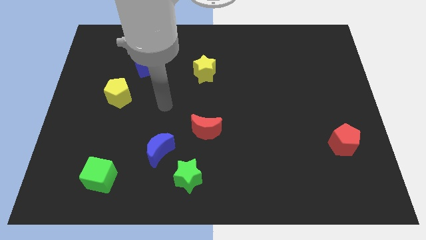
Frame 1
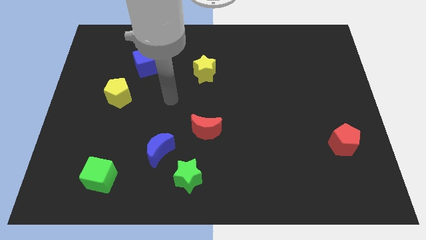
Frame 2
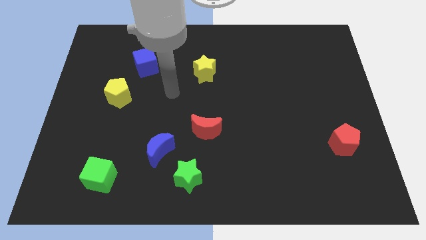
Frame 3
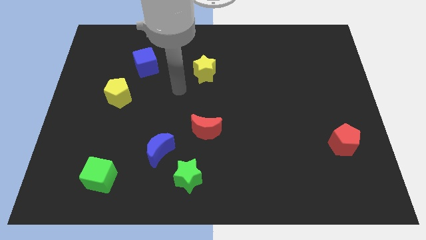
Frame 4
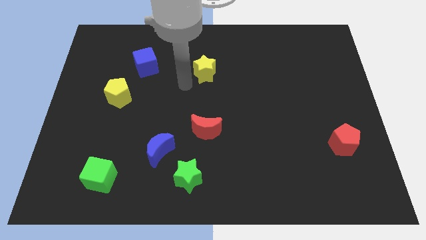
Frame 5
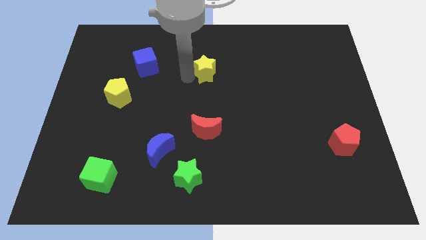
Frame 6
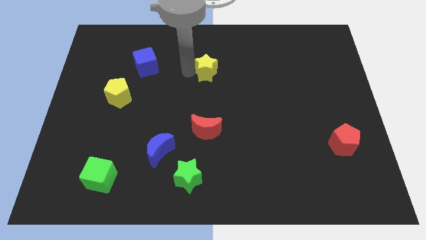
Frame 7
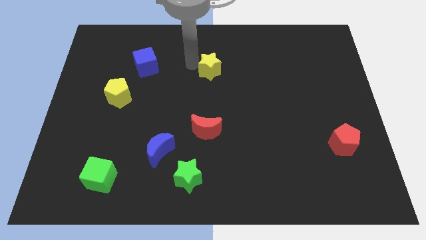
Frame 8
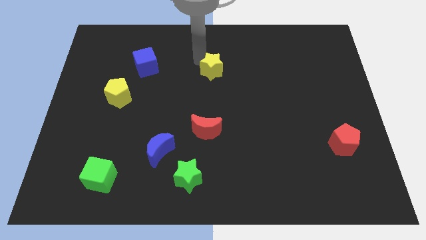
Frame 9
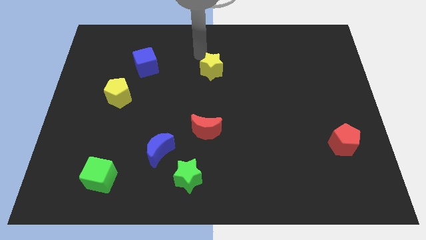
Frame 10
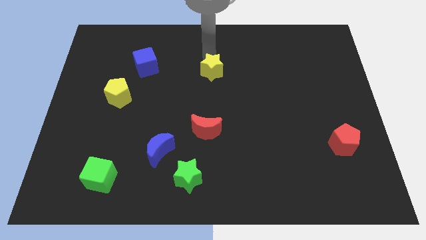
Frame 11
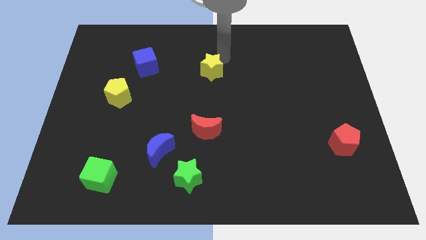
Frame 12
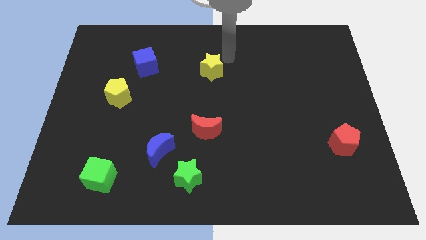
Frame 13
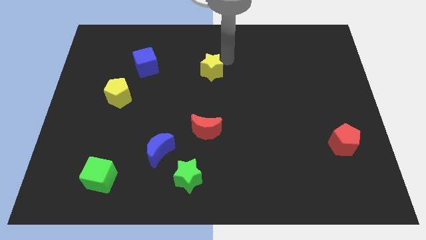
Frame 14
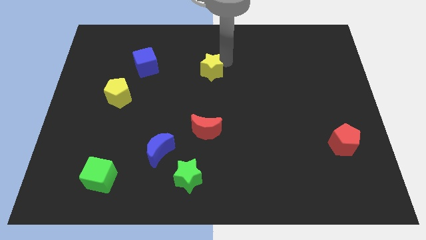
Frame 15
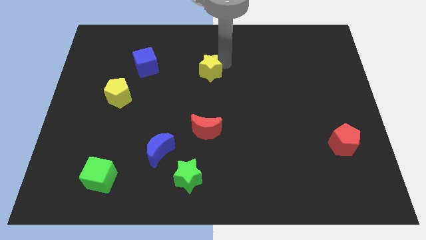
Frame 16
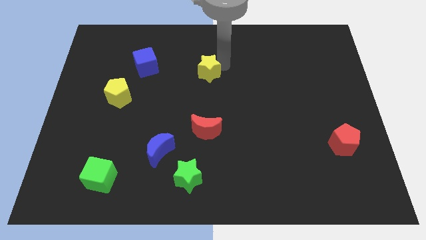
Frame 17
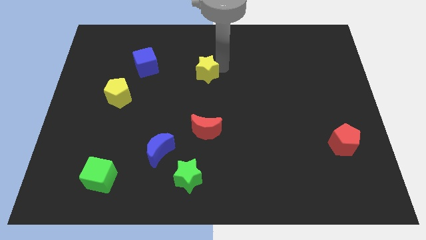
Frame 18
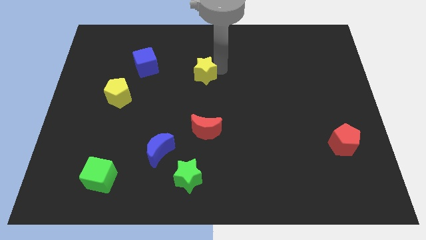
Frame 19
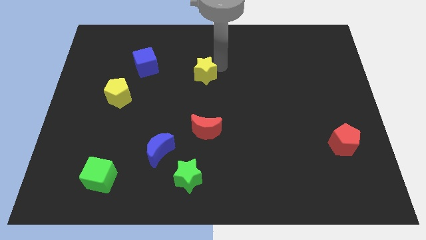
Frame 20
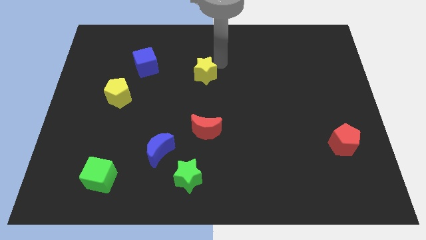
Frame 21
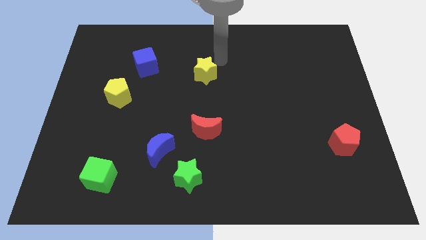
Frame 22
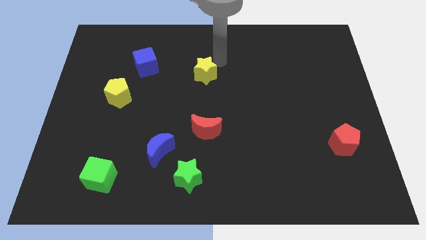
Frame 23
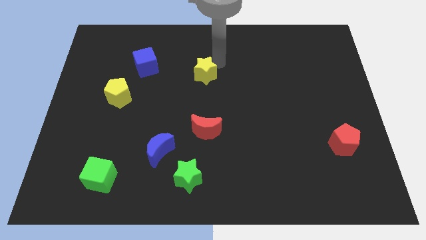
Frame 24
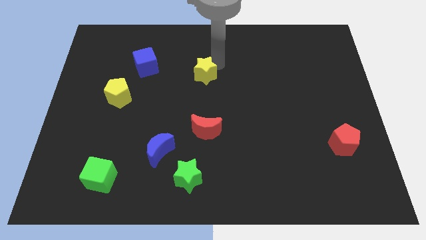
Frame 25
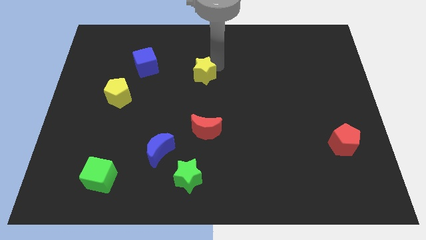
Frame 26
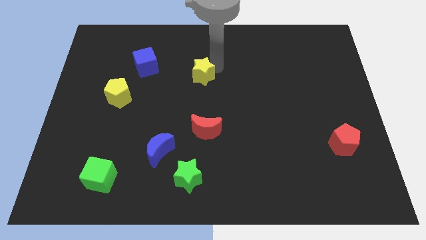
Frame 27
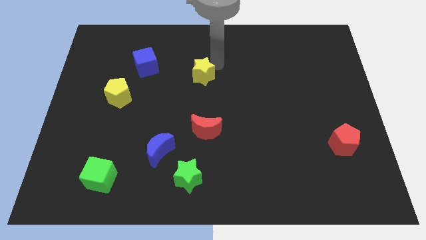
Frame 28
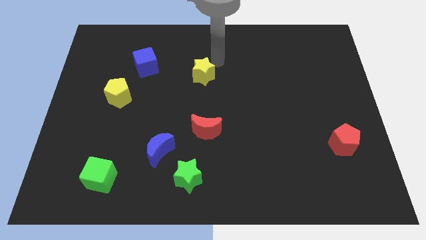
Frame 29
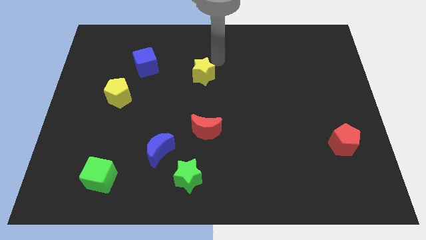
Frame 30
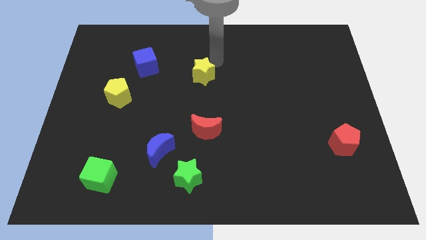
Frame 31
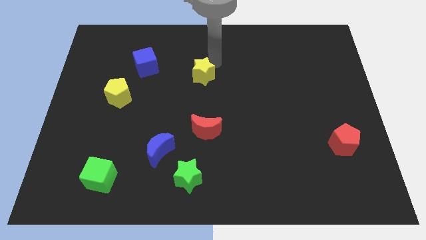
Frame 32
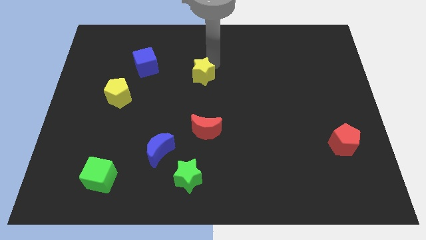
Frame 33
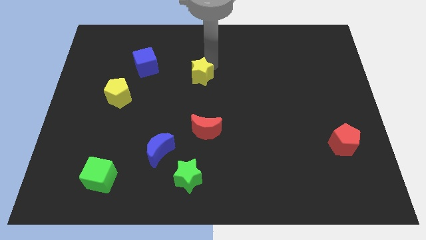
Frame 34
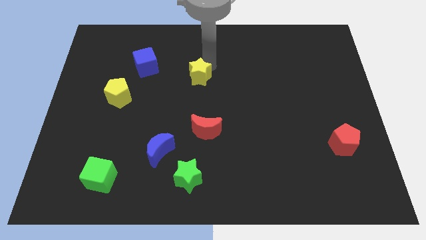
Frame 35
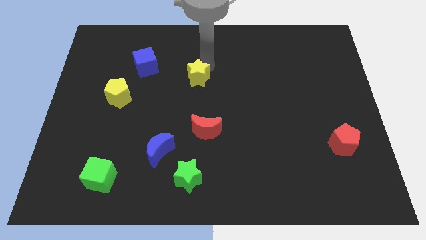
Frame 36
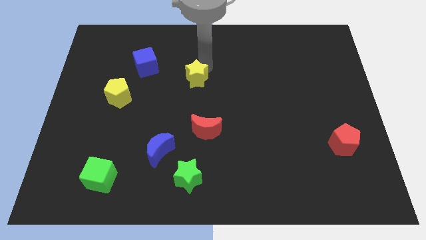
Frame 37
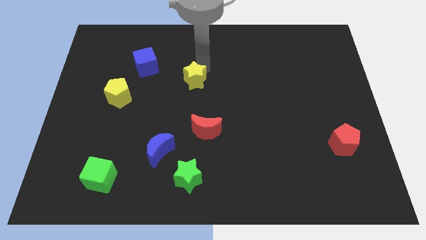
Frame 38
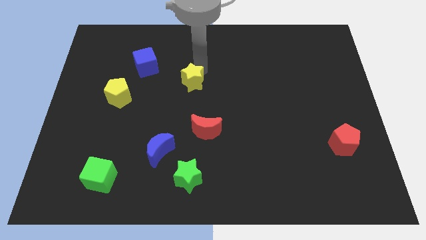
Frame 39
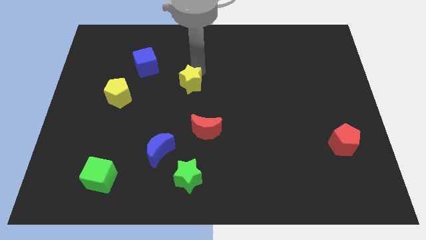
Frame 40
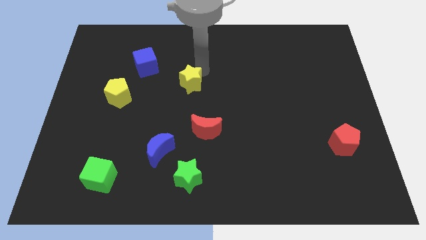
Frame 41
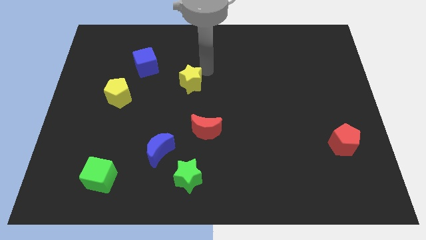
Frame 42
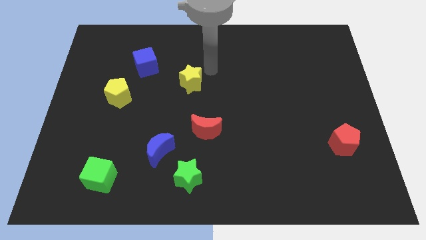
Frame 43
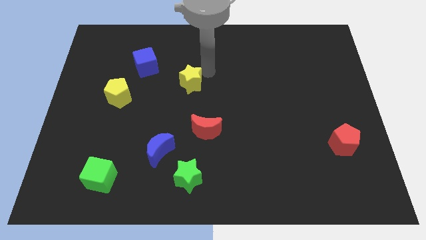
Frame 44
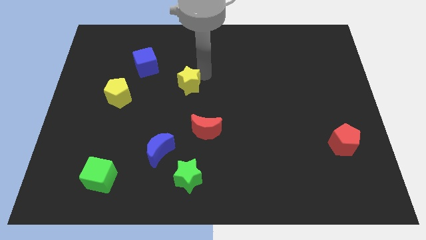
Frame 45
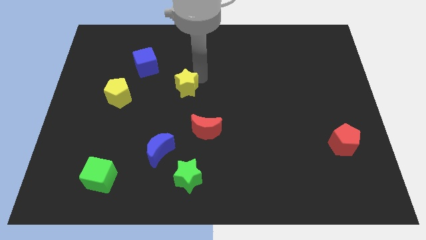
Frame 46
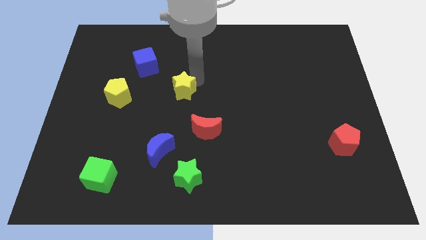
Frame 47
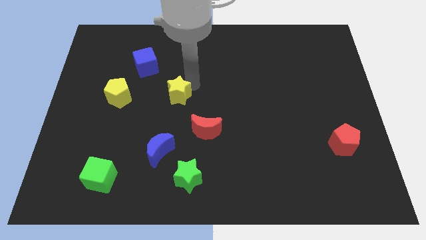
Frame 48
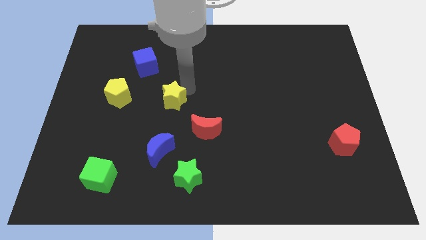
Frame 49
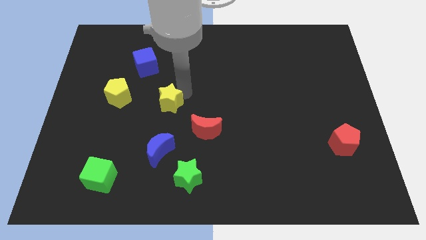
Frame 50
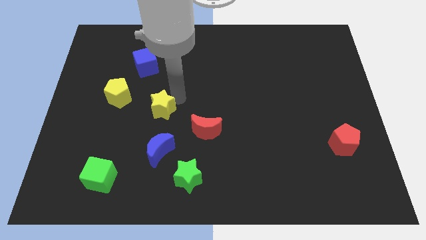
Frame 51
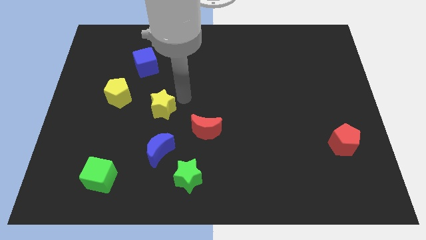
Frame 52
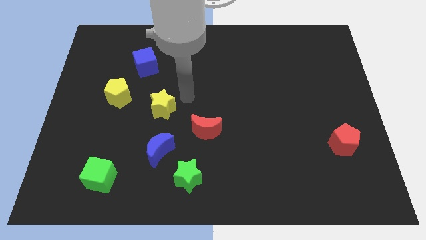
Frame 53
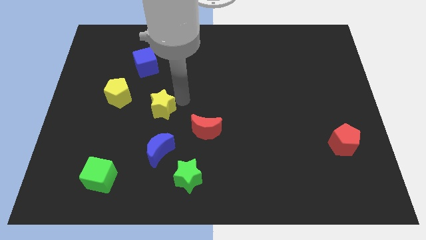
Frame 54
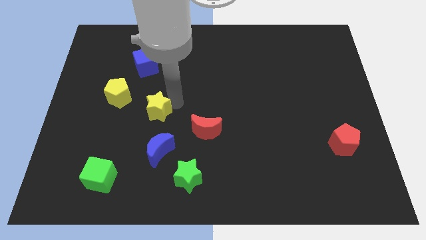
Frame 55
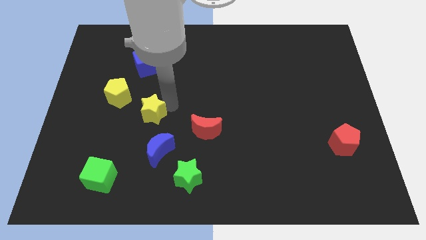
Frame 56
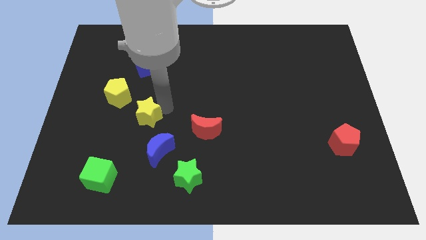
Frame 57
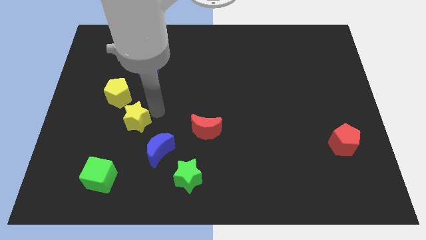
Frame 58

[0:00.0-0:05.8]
slide the yellow star down and left

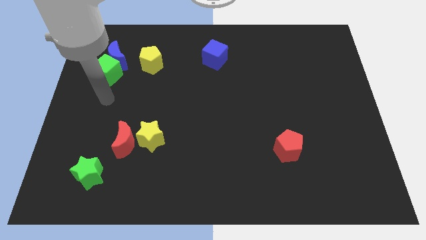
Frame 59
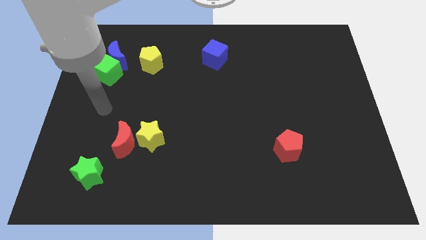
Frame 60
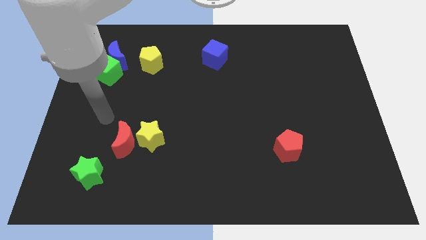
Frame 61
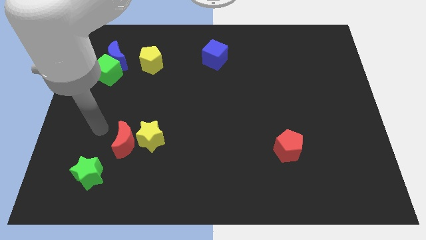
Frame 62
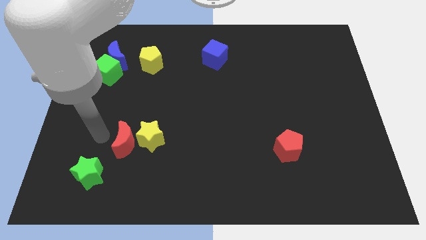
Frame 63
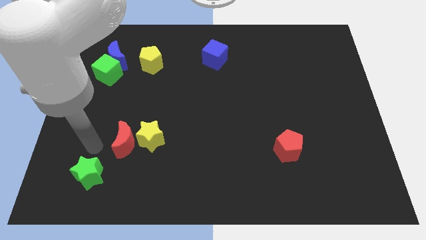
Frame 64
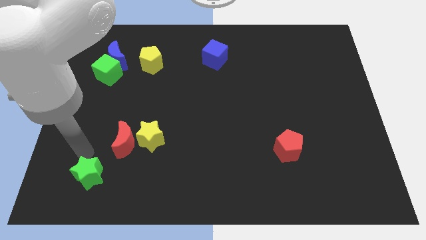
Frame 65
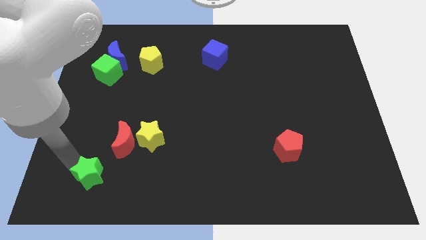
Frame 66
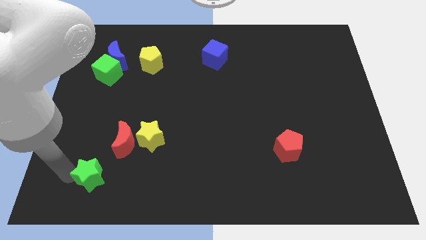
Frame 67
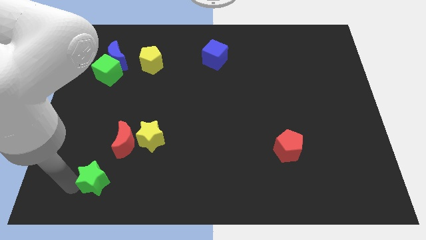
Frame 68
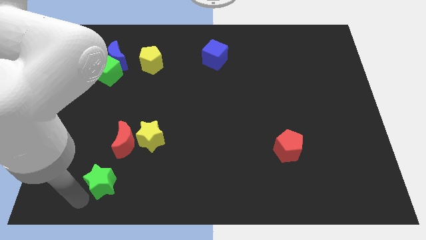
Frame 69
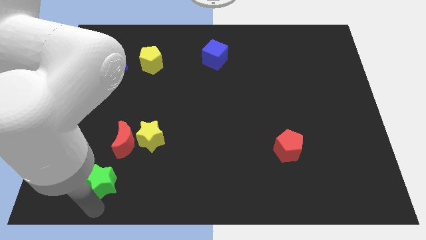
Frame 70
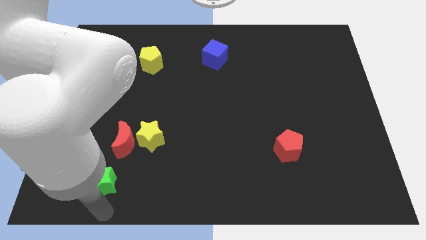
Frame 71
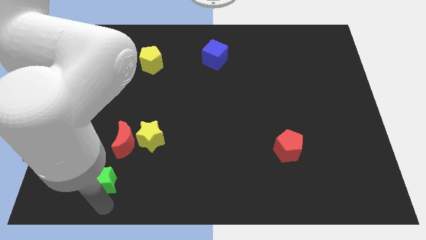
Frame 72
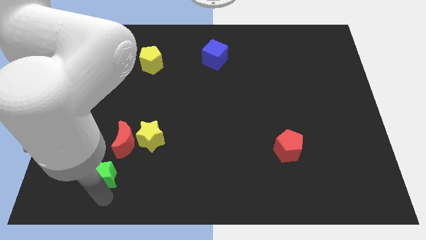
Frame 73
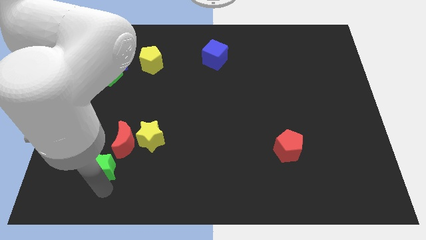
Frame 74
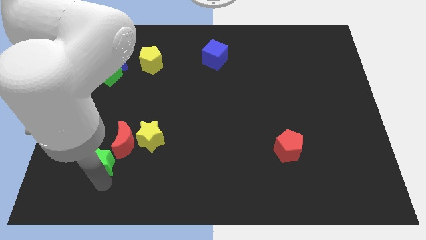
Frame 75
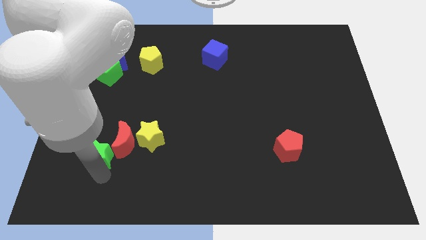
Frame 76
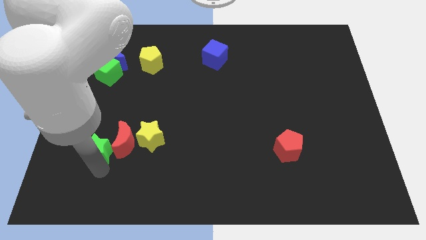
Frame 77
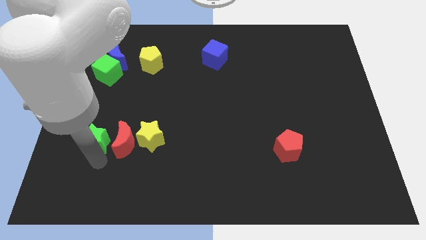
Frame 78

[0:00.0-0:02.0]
slightly push the green star up
